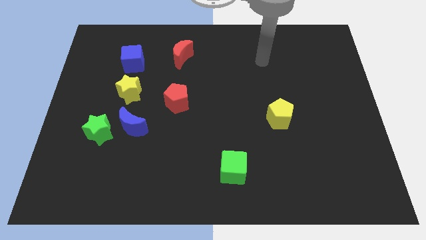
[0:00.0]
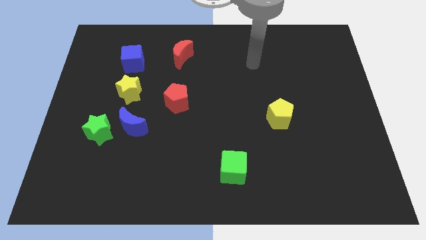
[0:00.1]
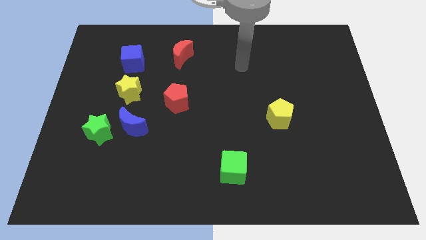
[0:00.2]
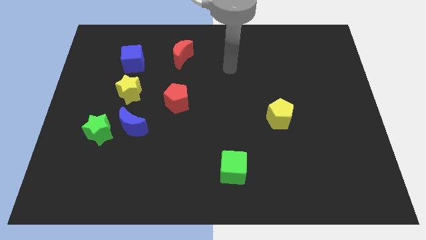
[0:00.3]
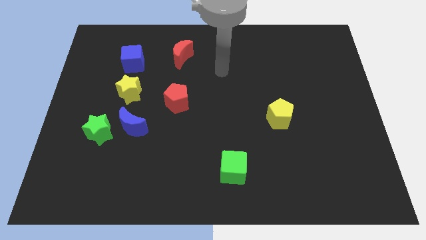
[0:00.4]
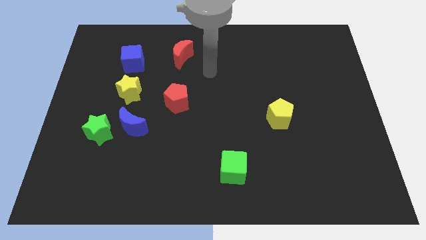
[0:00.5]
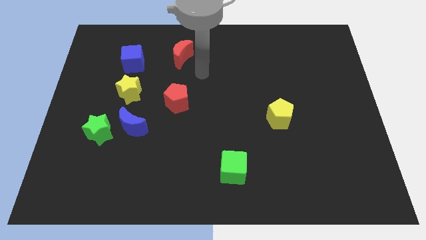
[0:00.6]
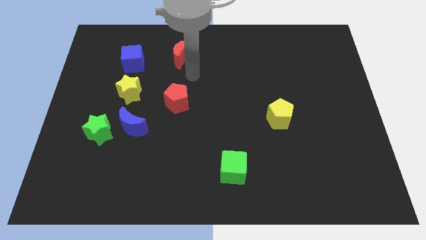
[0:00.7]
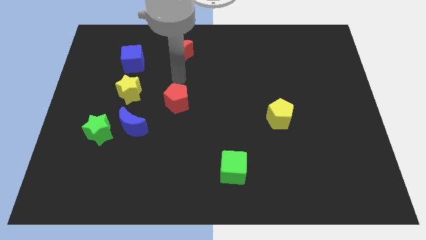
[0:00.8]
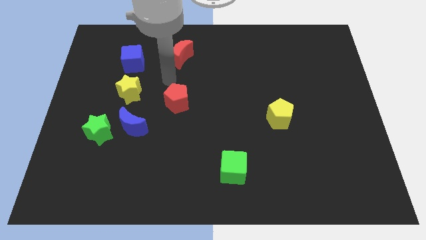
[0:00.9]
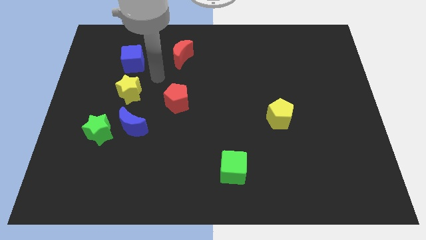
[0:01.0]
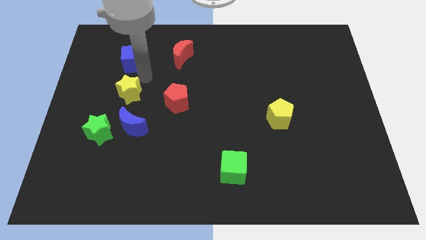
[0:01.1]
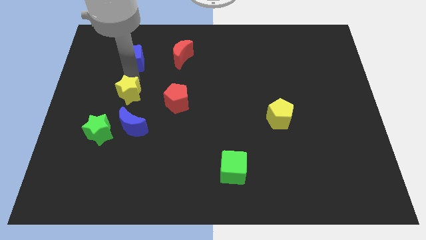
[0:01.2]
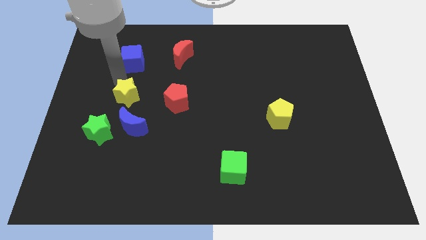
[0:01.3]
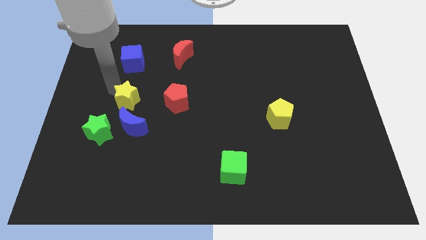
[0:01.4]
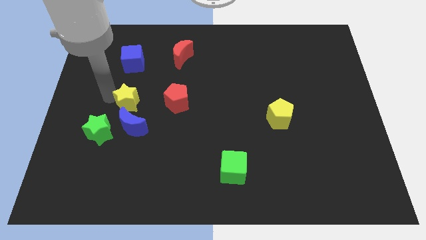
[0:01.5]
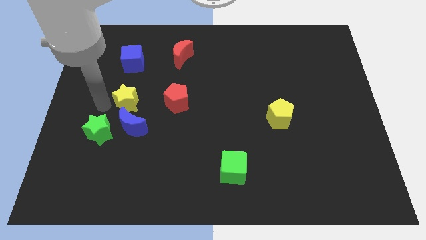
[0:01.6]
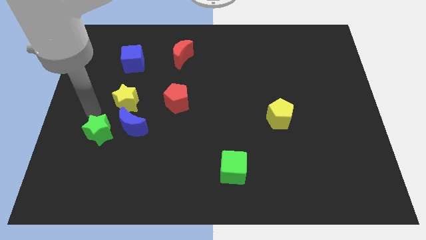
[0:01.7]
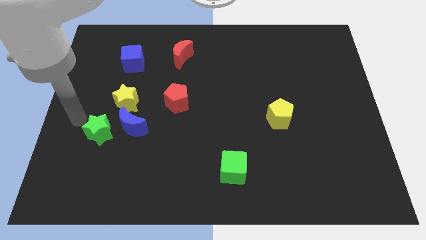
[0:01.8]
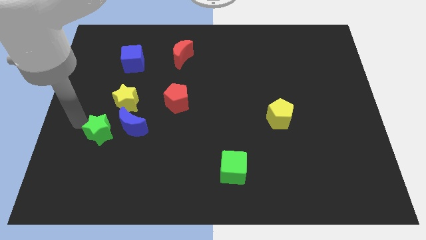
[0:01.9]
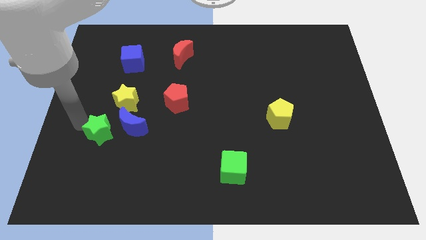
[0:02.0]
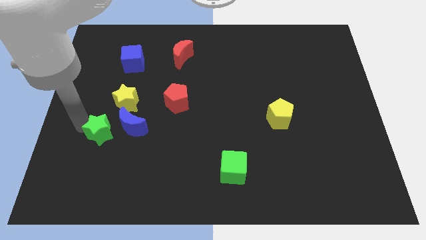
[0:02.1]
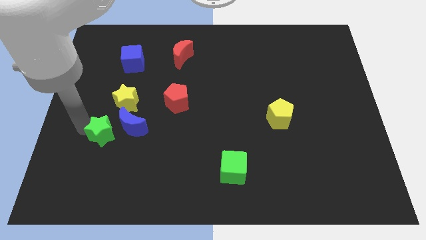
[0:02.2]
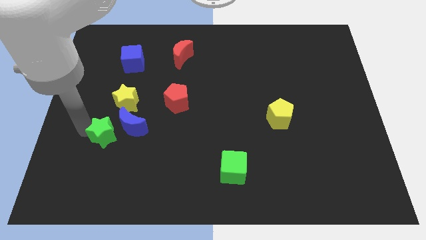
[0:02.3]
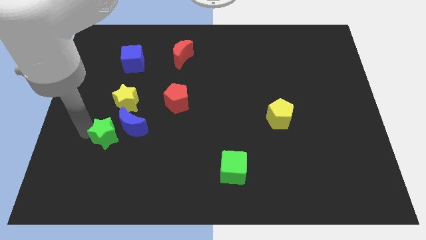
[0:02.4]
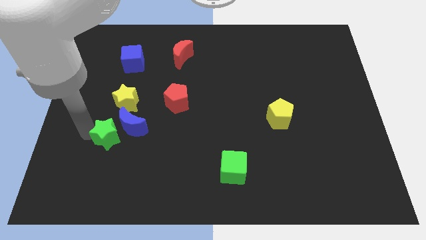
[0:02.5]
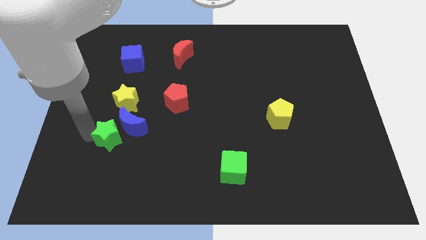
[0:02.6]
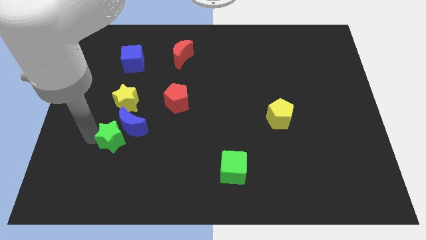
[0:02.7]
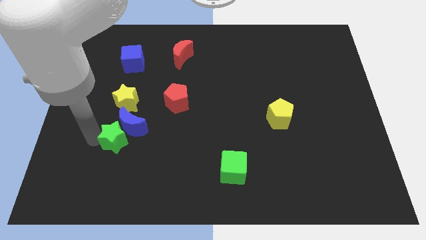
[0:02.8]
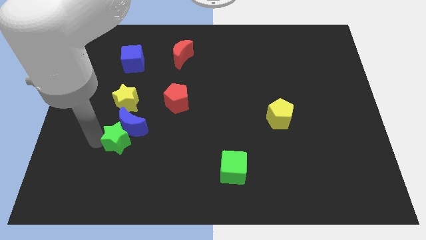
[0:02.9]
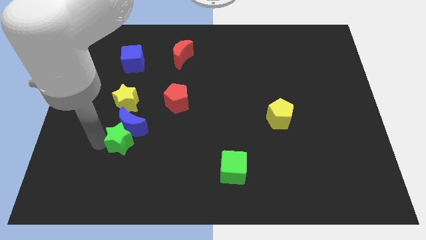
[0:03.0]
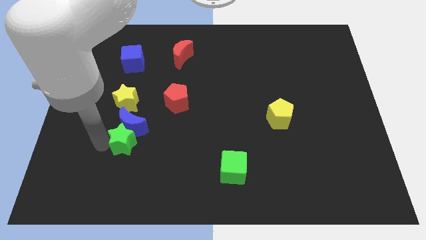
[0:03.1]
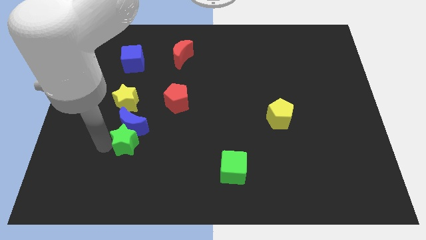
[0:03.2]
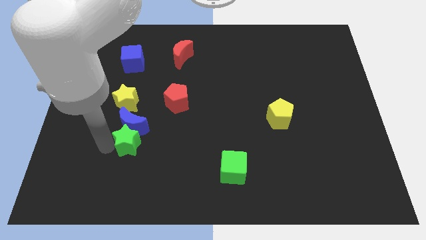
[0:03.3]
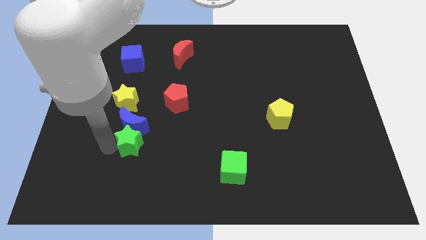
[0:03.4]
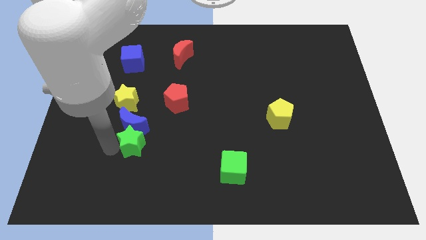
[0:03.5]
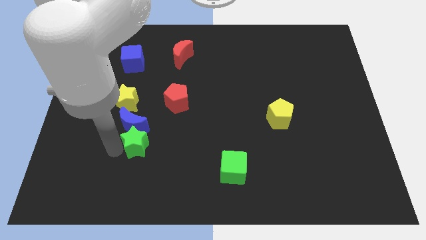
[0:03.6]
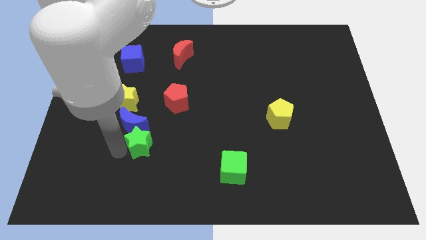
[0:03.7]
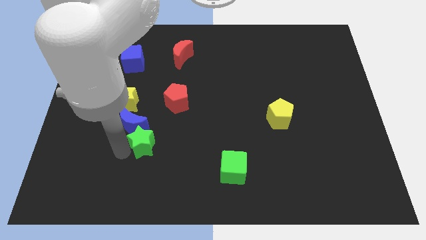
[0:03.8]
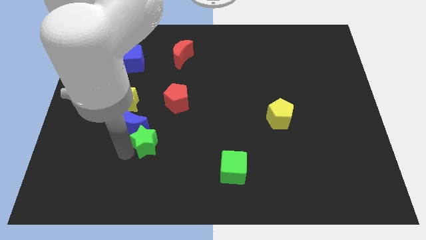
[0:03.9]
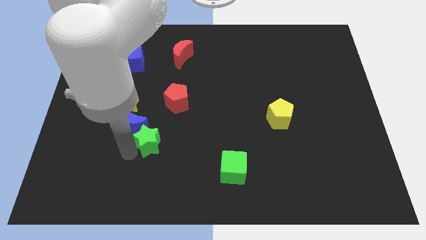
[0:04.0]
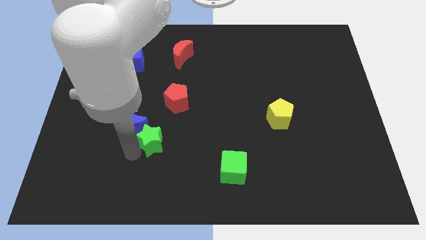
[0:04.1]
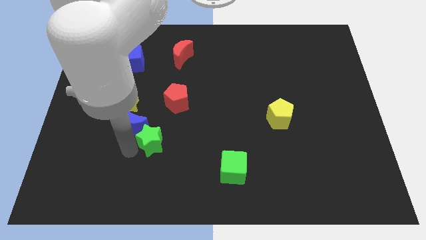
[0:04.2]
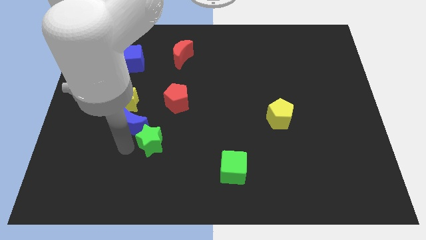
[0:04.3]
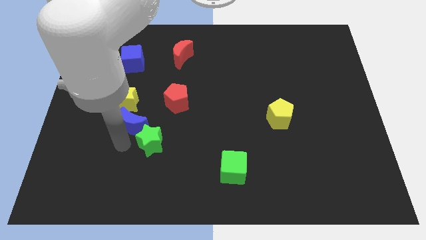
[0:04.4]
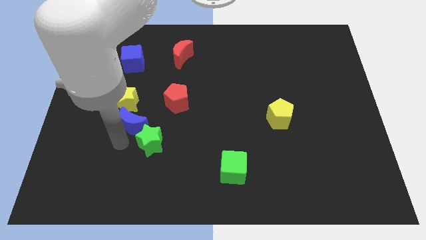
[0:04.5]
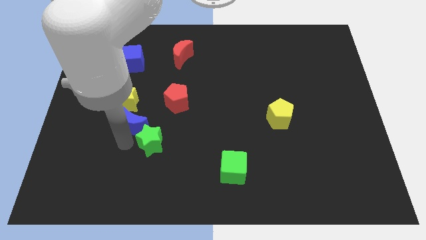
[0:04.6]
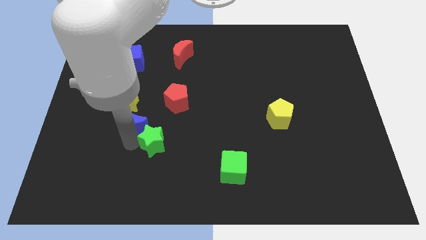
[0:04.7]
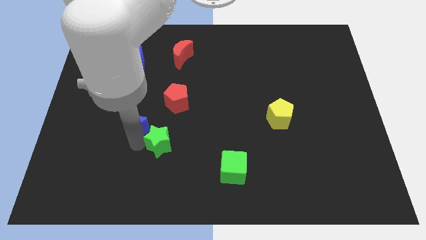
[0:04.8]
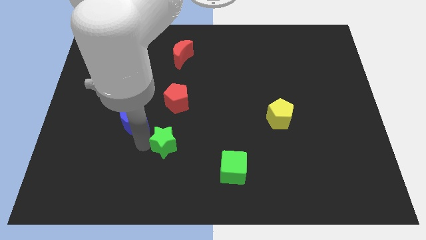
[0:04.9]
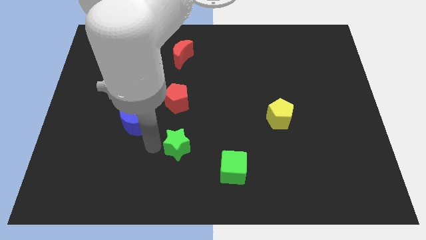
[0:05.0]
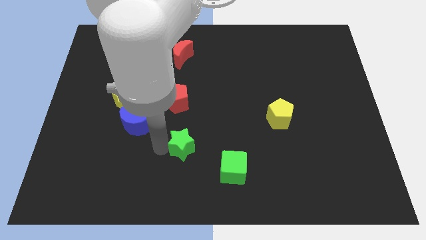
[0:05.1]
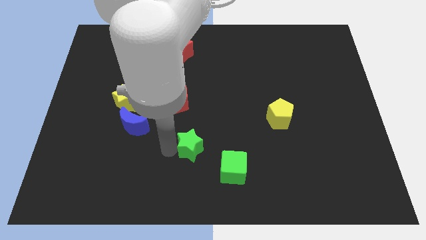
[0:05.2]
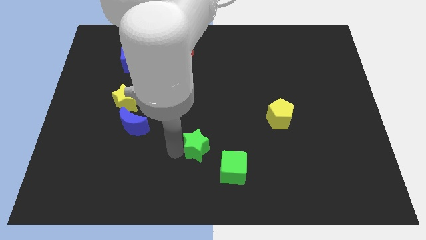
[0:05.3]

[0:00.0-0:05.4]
push the green star to the right

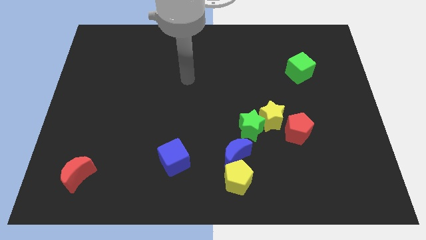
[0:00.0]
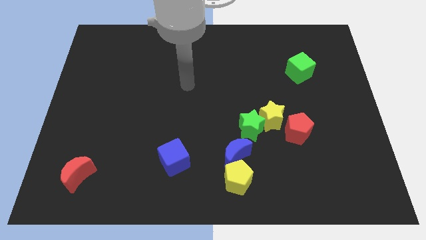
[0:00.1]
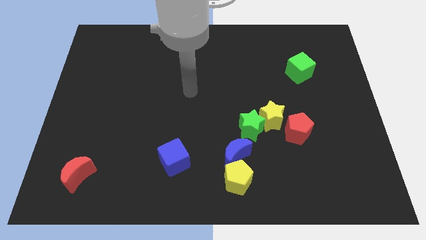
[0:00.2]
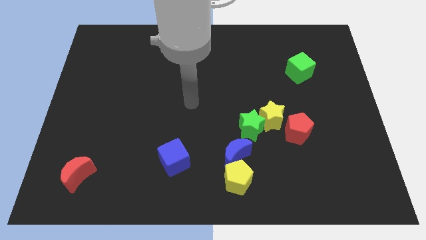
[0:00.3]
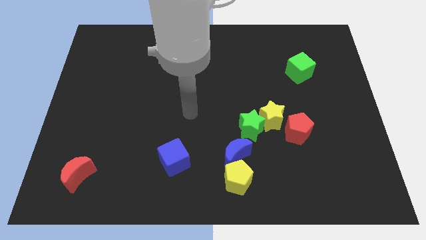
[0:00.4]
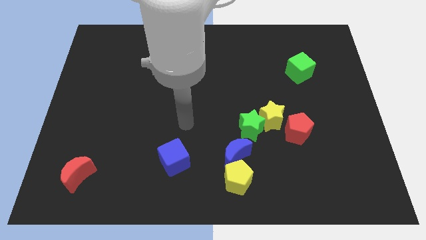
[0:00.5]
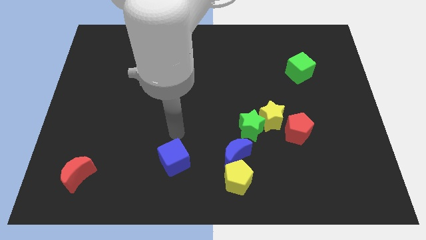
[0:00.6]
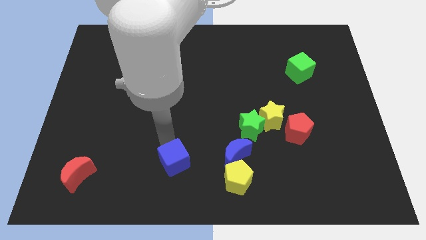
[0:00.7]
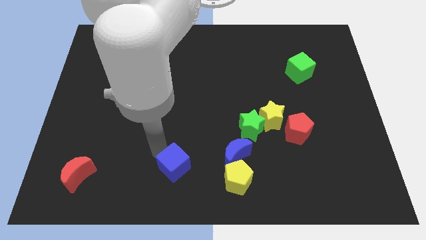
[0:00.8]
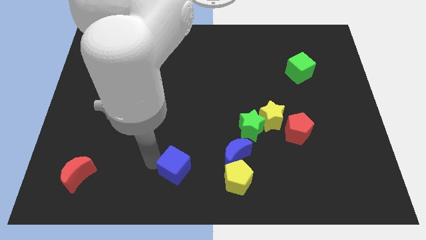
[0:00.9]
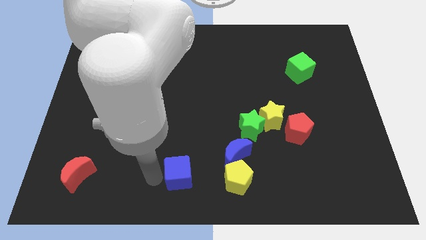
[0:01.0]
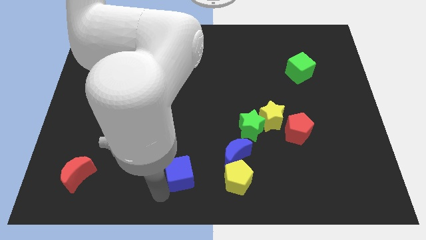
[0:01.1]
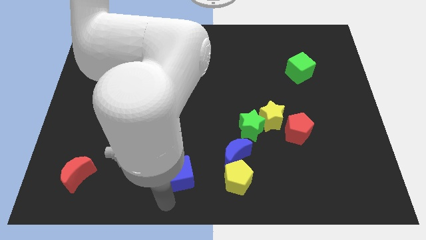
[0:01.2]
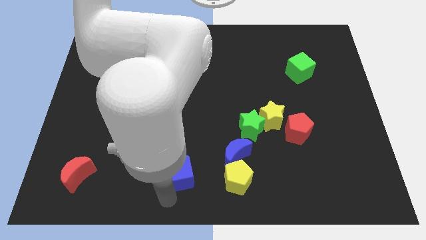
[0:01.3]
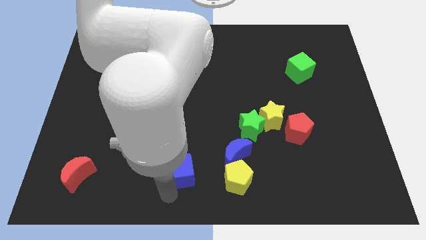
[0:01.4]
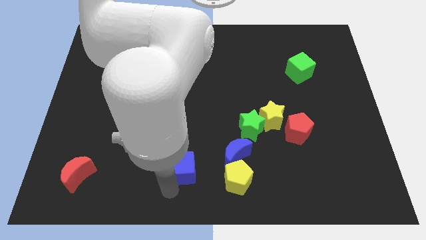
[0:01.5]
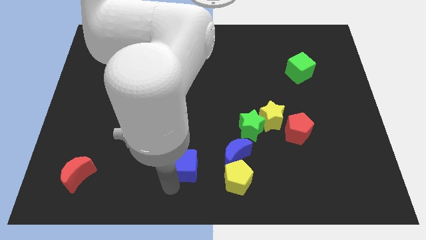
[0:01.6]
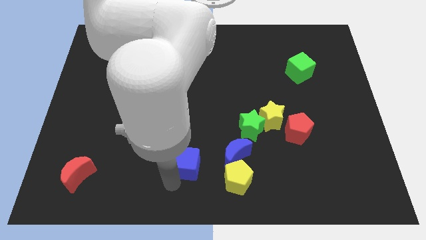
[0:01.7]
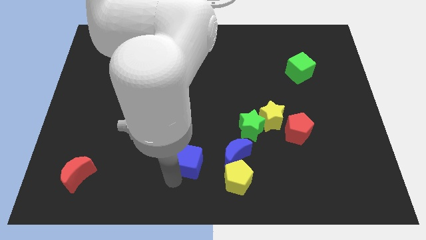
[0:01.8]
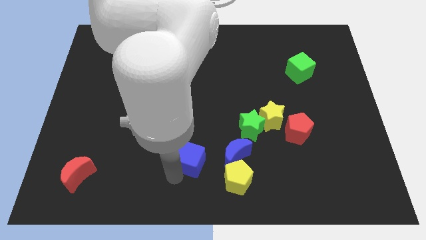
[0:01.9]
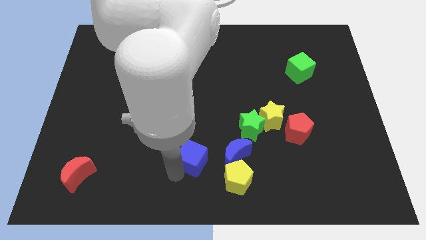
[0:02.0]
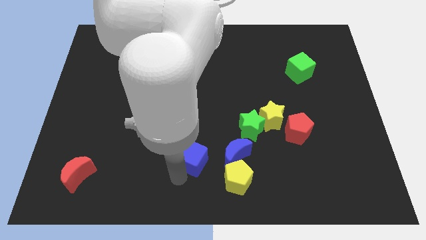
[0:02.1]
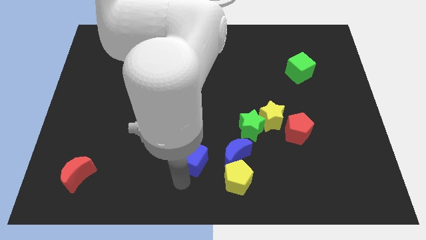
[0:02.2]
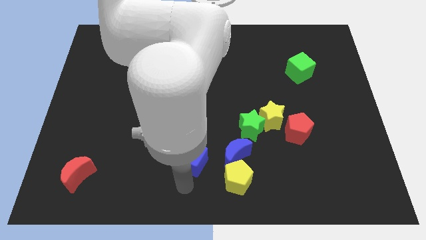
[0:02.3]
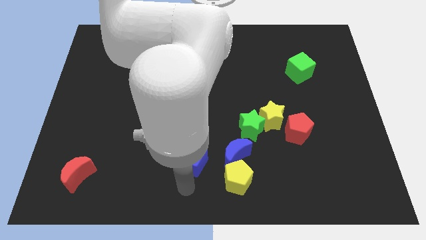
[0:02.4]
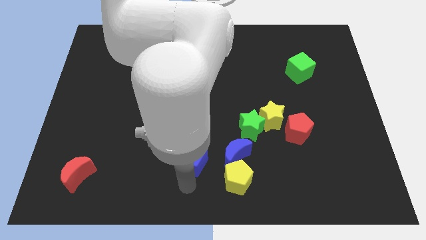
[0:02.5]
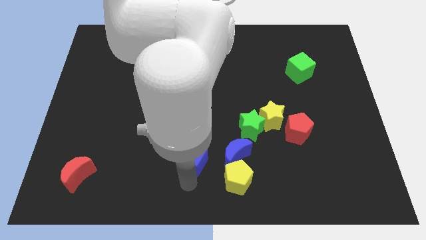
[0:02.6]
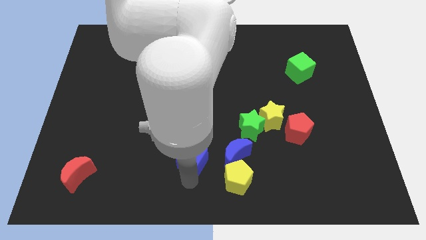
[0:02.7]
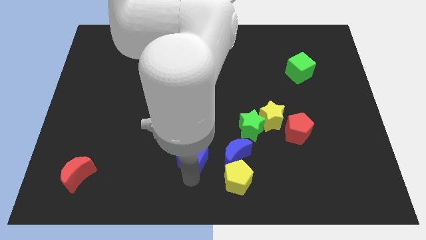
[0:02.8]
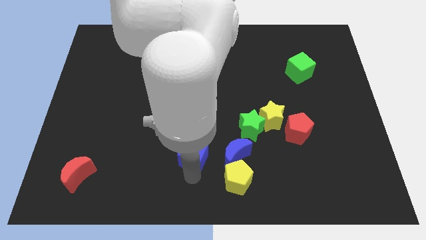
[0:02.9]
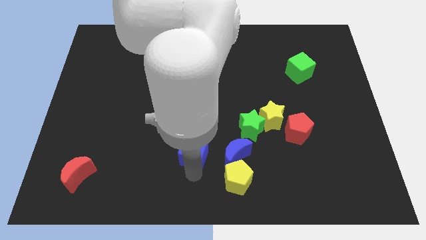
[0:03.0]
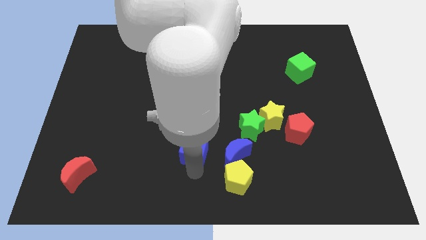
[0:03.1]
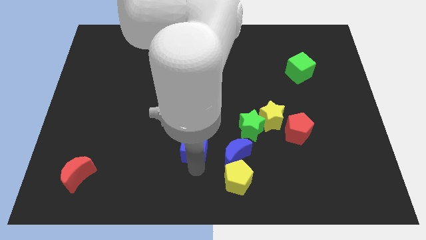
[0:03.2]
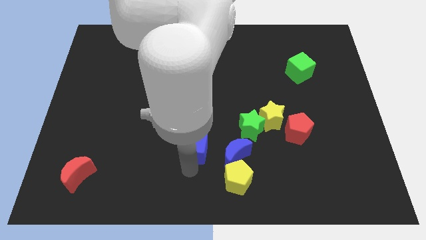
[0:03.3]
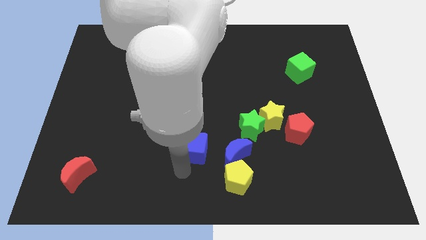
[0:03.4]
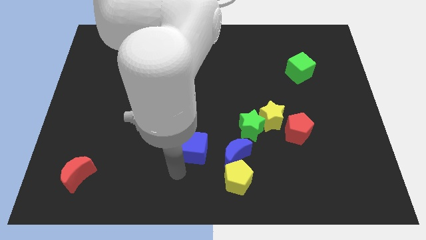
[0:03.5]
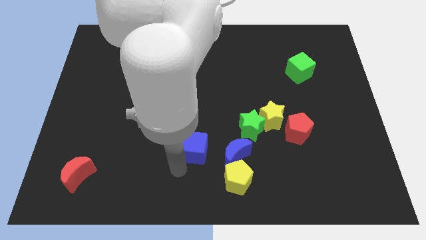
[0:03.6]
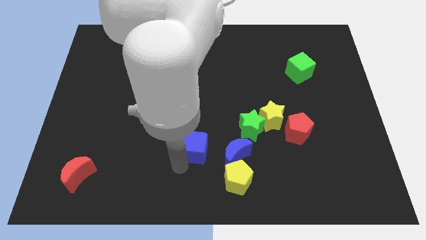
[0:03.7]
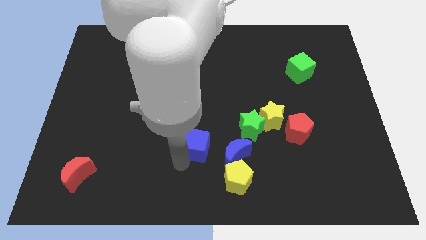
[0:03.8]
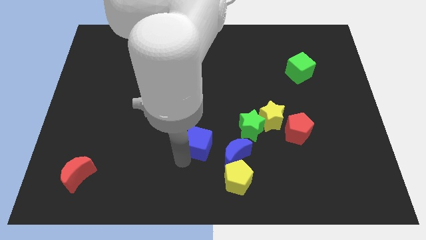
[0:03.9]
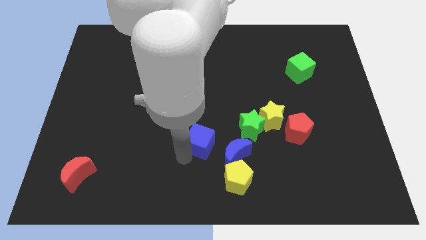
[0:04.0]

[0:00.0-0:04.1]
move the blue cube slightly up and right
